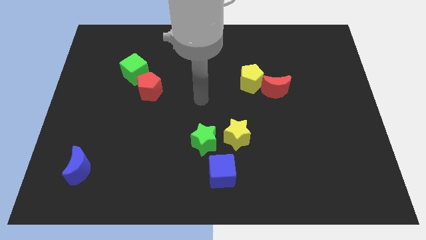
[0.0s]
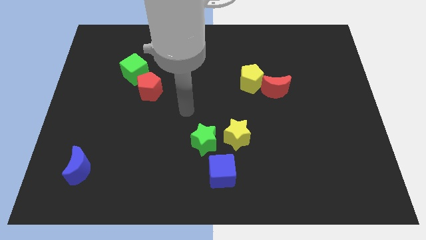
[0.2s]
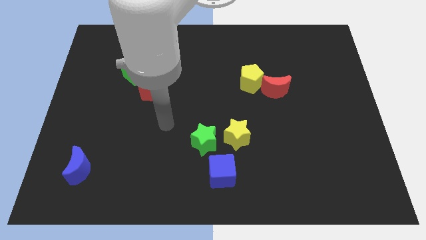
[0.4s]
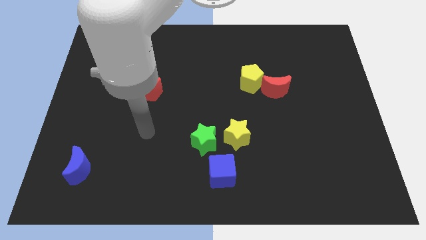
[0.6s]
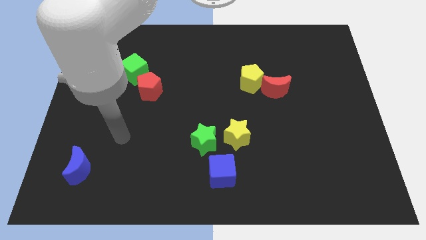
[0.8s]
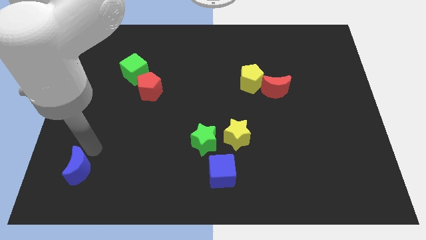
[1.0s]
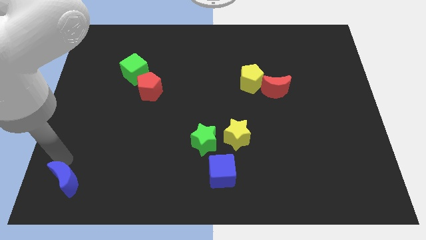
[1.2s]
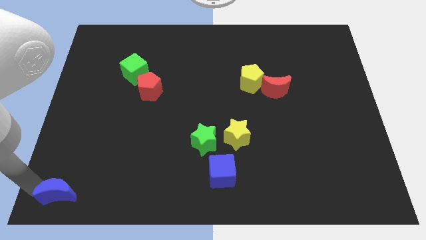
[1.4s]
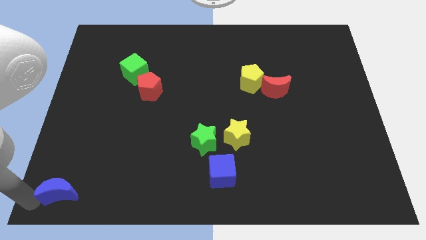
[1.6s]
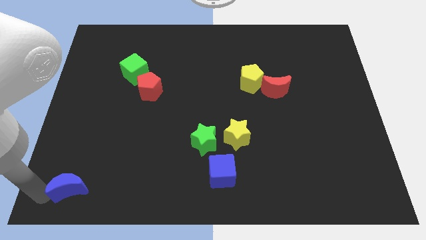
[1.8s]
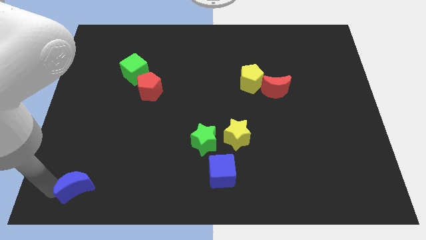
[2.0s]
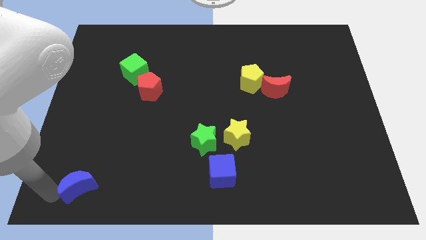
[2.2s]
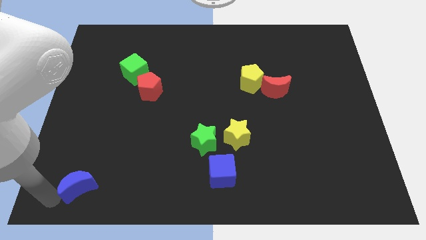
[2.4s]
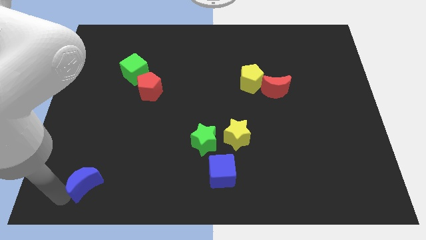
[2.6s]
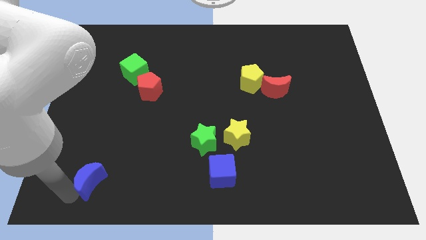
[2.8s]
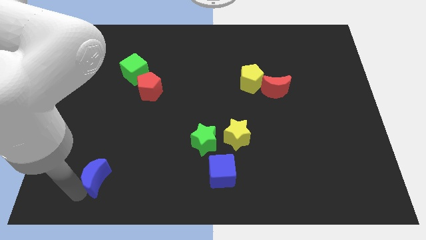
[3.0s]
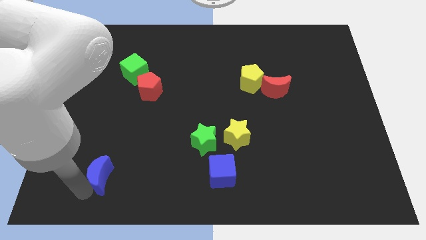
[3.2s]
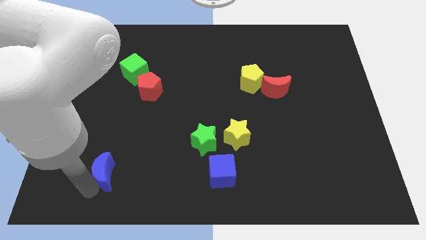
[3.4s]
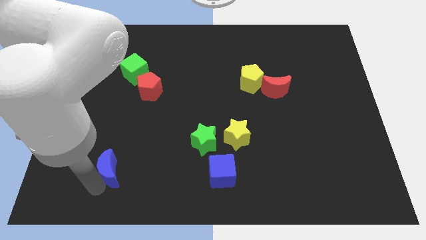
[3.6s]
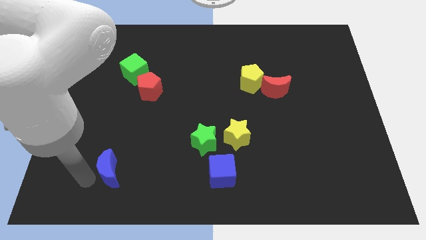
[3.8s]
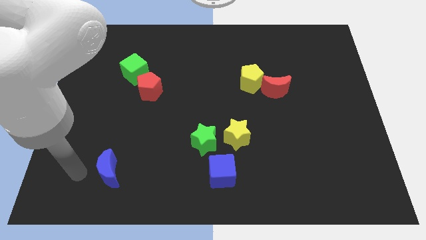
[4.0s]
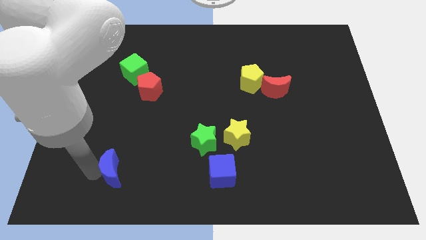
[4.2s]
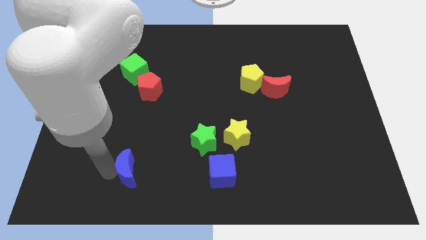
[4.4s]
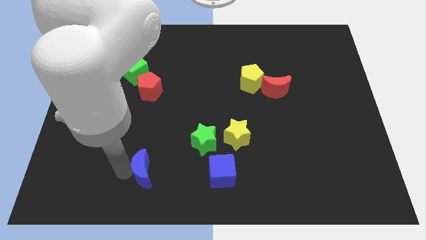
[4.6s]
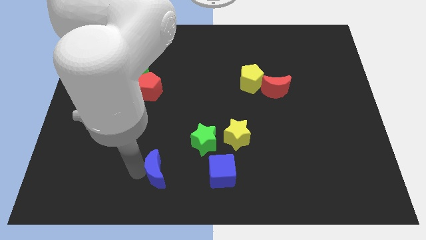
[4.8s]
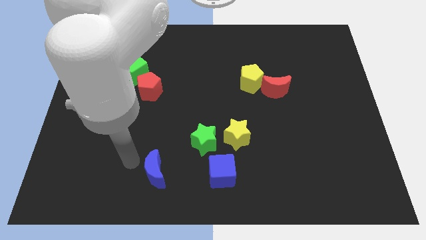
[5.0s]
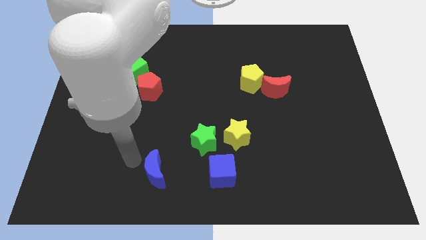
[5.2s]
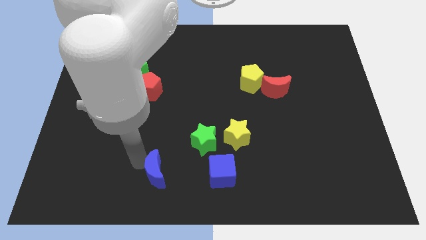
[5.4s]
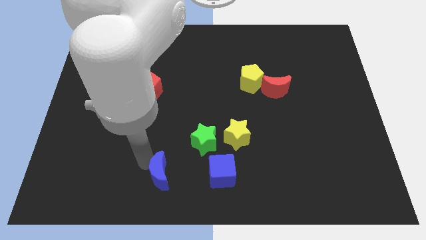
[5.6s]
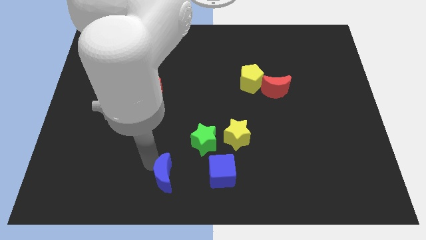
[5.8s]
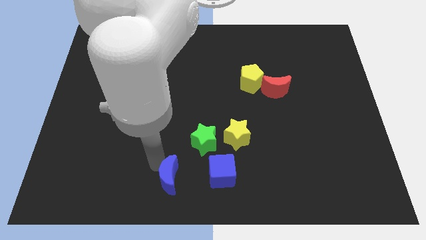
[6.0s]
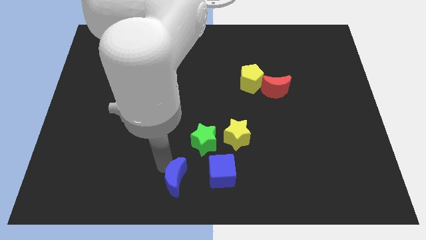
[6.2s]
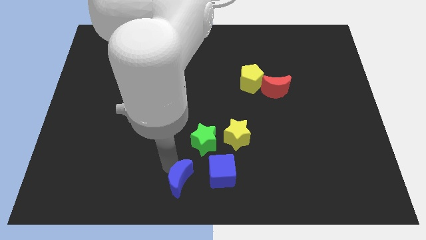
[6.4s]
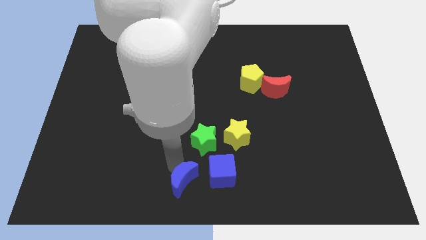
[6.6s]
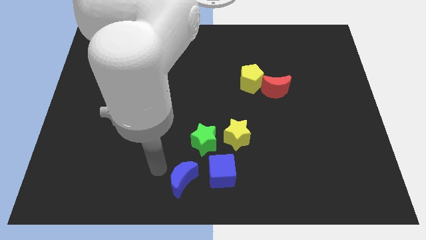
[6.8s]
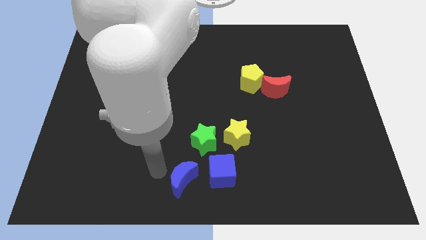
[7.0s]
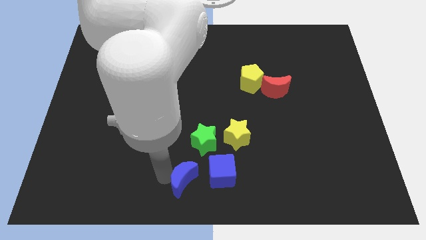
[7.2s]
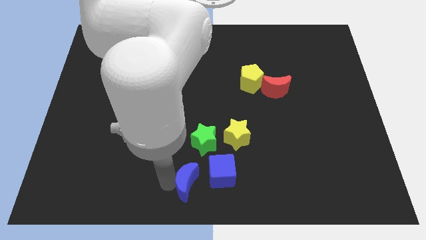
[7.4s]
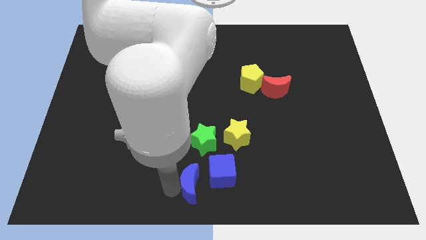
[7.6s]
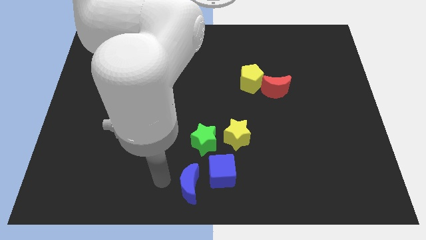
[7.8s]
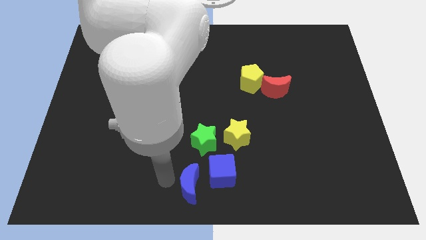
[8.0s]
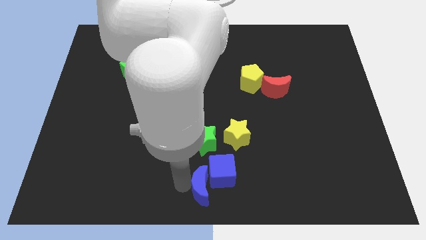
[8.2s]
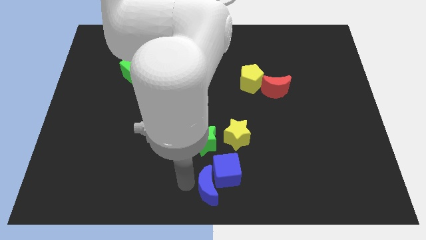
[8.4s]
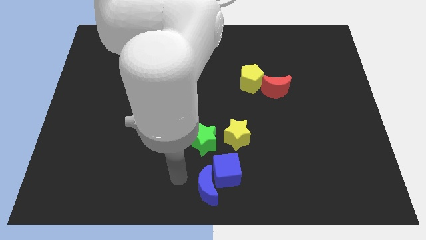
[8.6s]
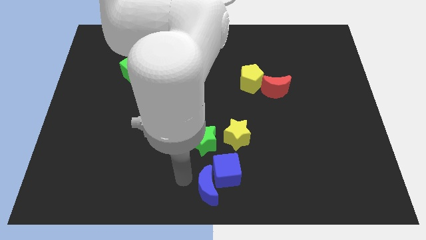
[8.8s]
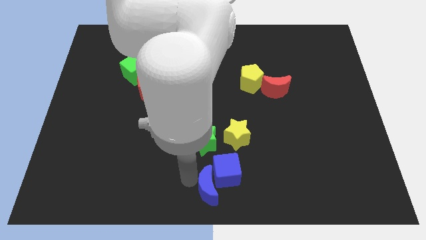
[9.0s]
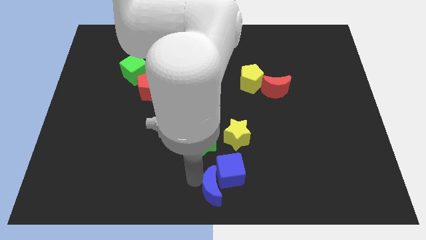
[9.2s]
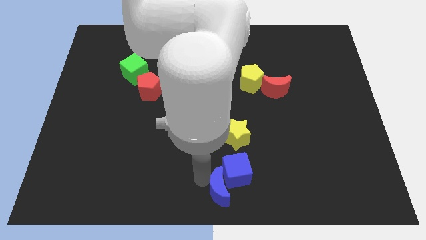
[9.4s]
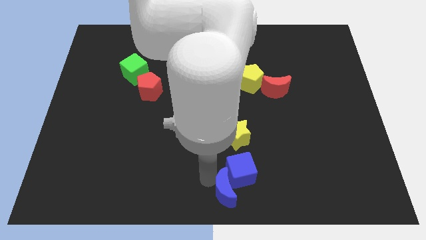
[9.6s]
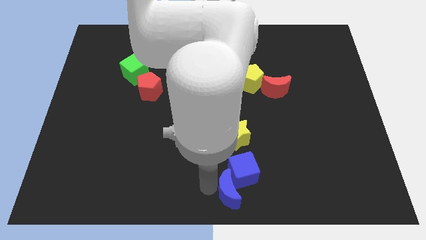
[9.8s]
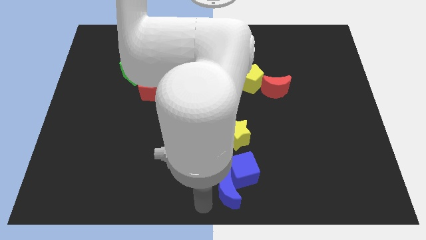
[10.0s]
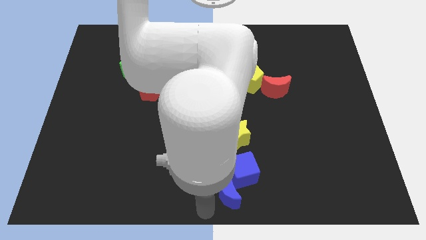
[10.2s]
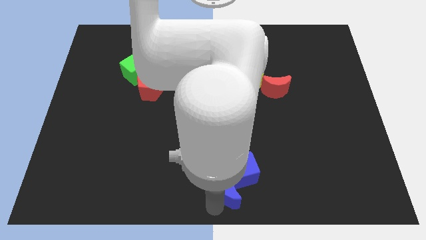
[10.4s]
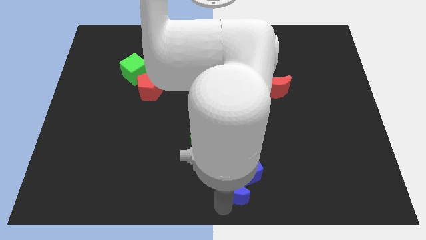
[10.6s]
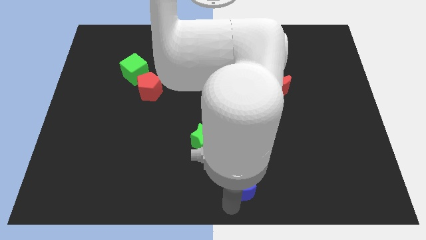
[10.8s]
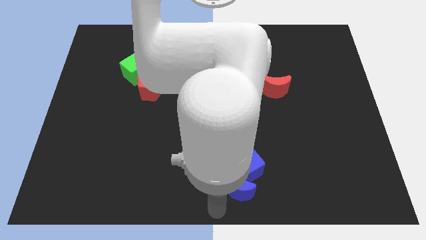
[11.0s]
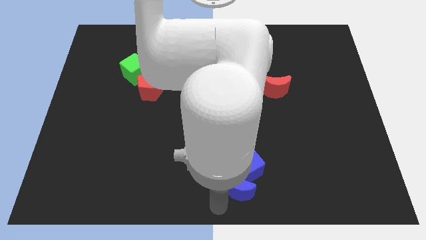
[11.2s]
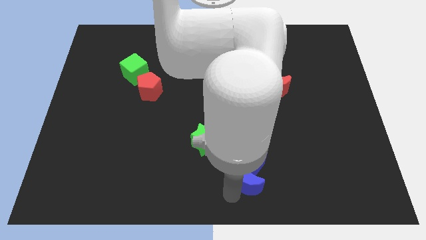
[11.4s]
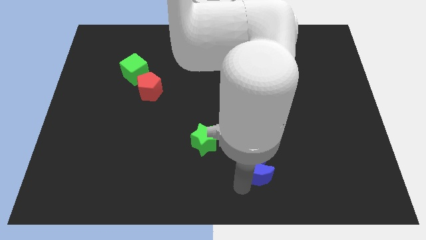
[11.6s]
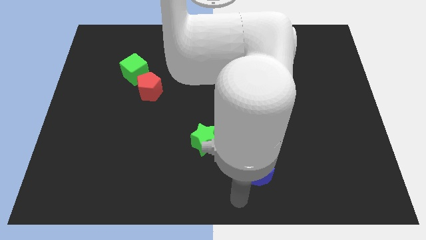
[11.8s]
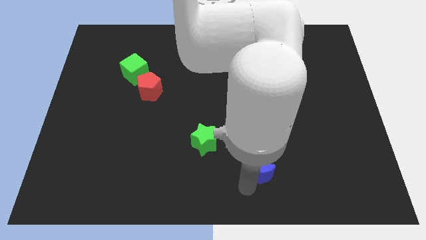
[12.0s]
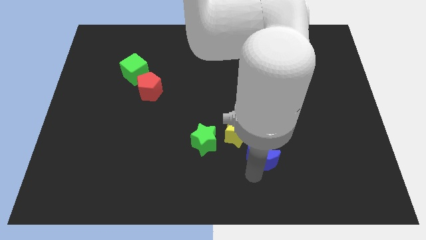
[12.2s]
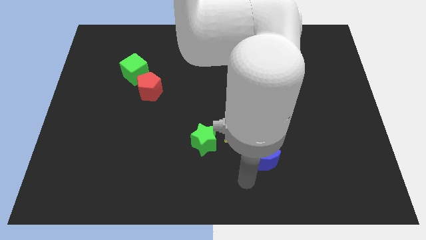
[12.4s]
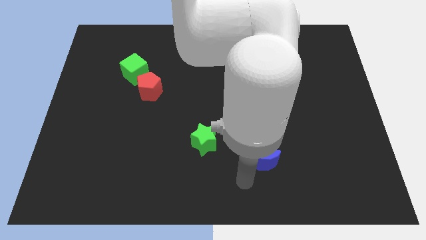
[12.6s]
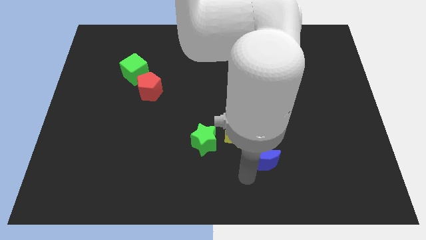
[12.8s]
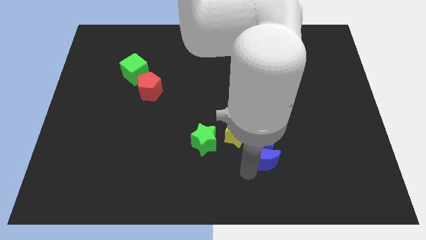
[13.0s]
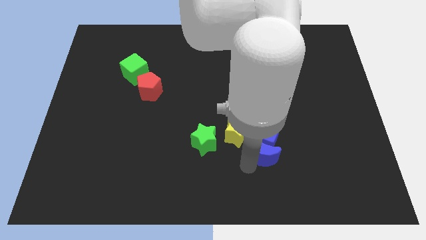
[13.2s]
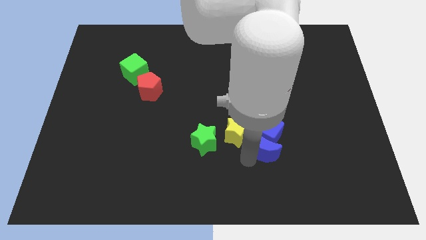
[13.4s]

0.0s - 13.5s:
put the blue moon to the right side of the yellow star

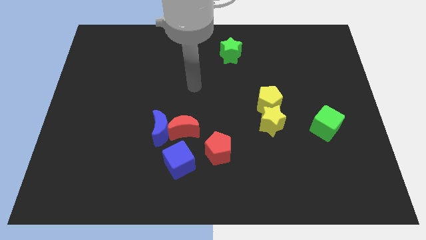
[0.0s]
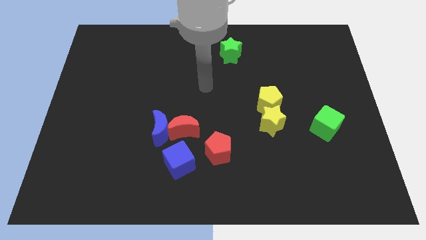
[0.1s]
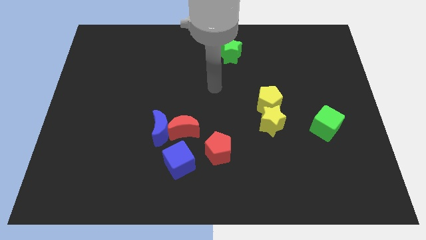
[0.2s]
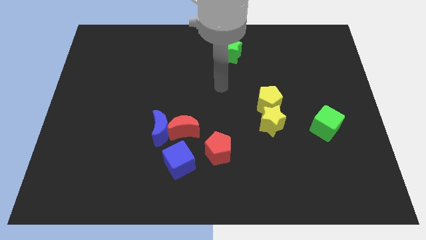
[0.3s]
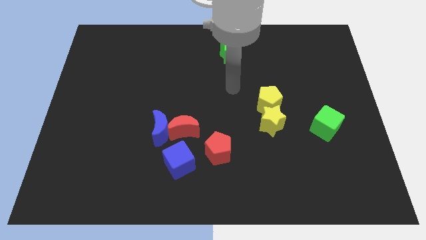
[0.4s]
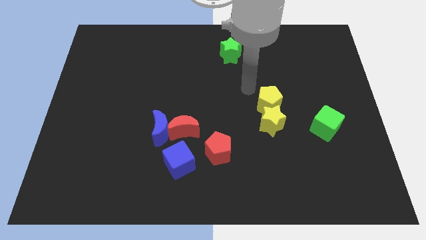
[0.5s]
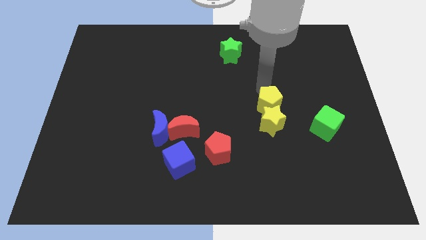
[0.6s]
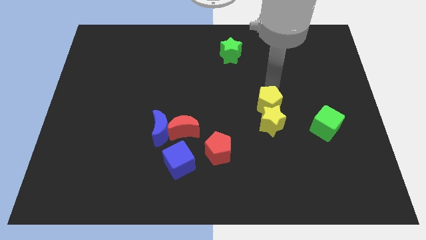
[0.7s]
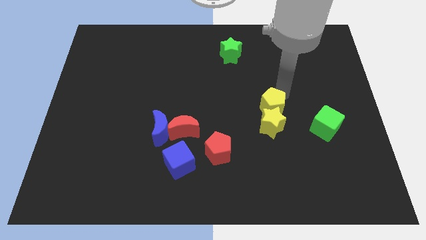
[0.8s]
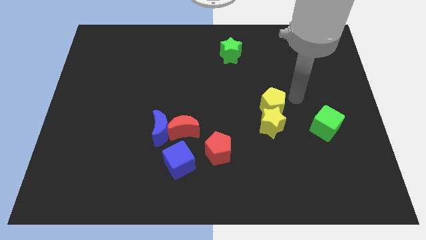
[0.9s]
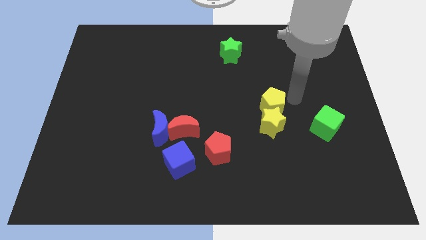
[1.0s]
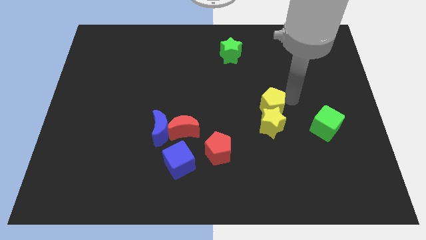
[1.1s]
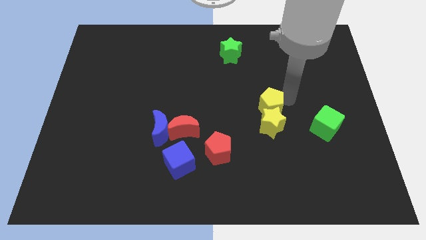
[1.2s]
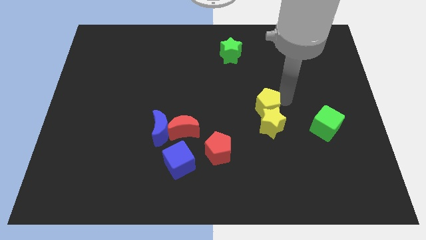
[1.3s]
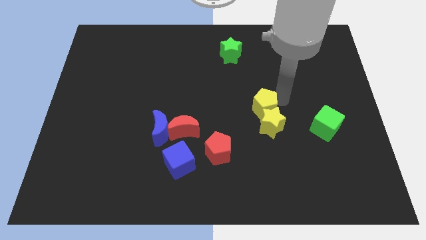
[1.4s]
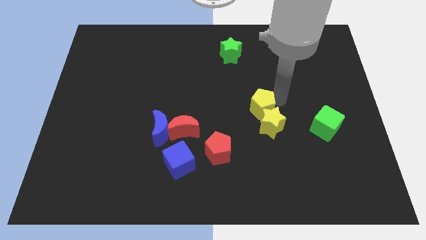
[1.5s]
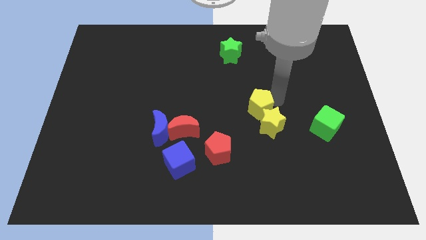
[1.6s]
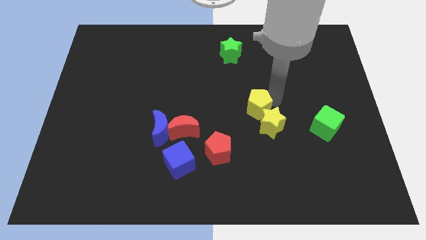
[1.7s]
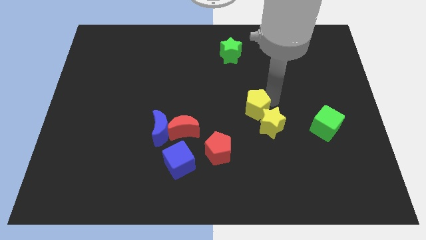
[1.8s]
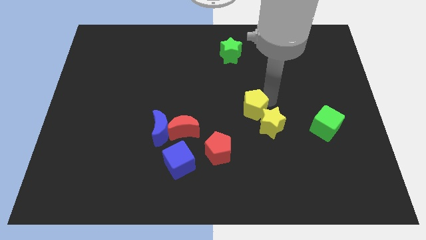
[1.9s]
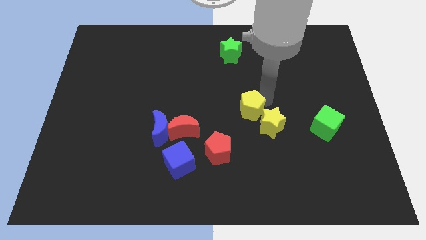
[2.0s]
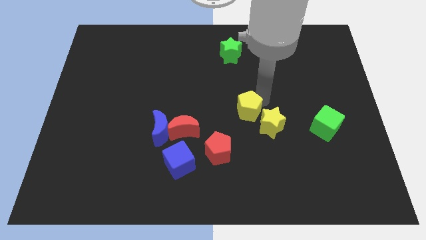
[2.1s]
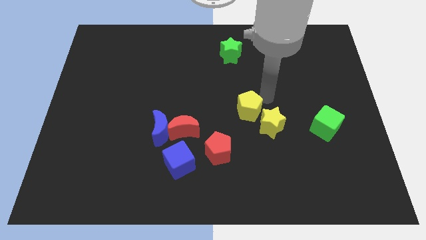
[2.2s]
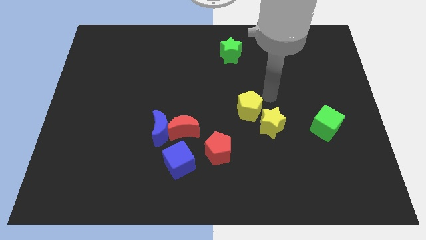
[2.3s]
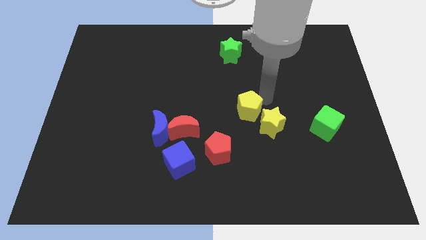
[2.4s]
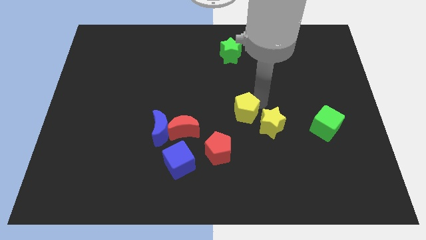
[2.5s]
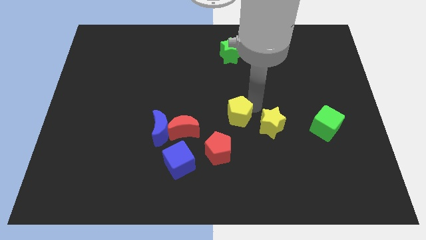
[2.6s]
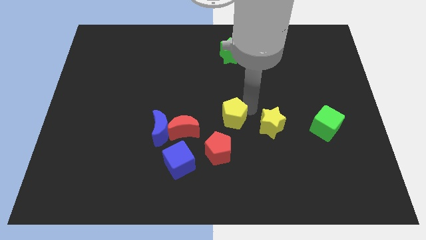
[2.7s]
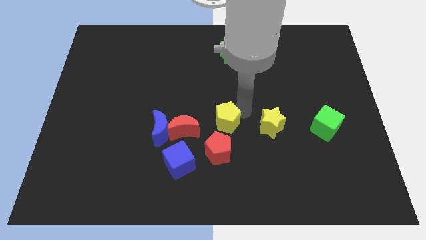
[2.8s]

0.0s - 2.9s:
move the yellow pentagon to the right of the blue moon
